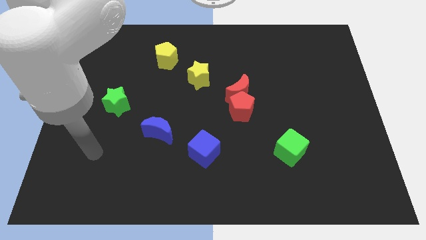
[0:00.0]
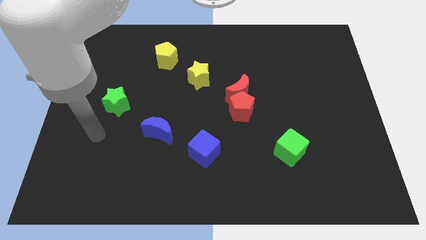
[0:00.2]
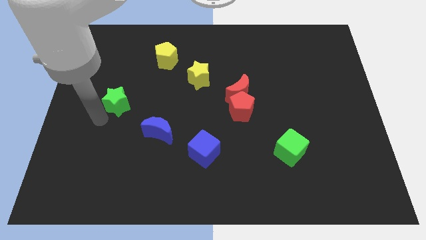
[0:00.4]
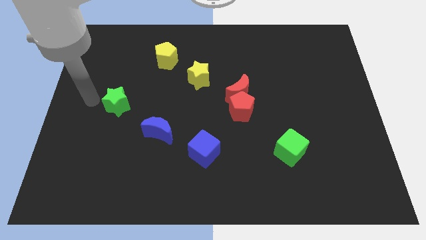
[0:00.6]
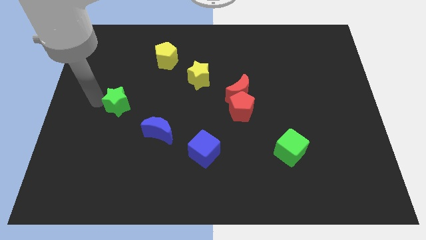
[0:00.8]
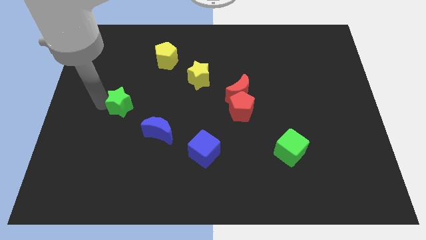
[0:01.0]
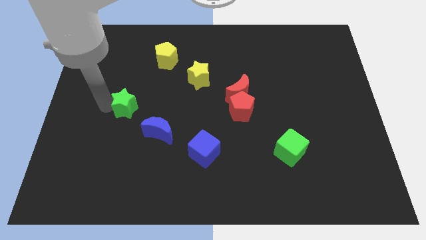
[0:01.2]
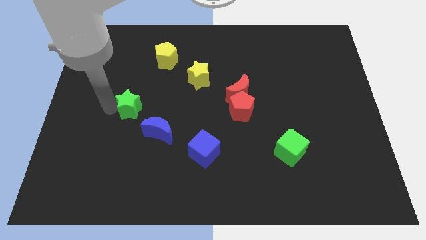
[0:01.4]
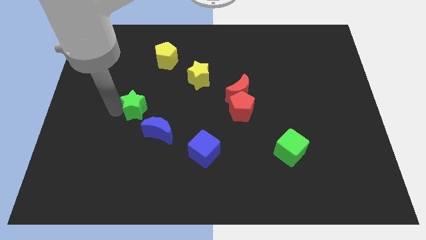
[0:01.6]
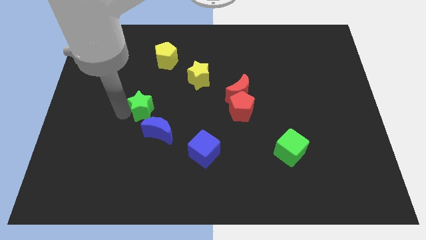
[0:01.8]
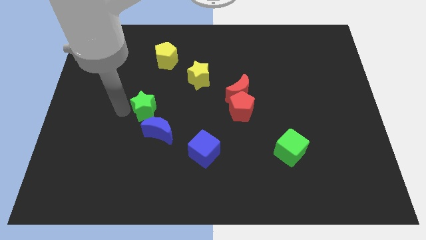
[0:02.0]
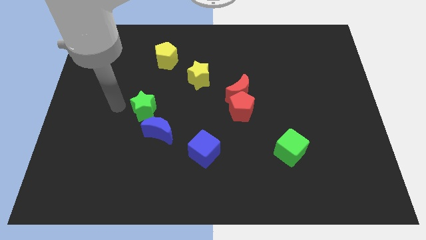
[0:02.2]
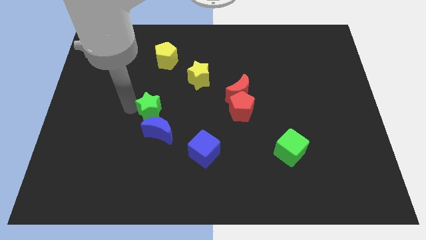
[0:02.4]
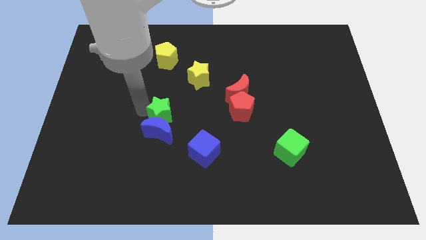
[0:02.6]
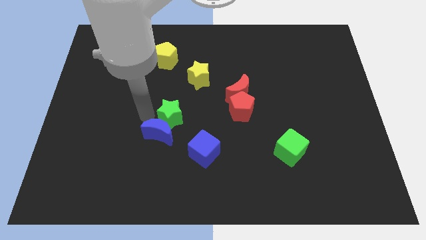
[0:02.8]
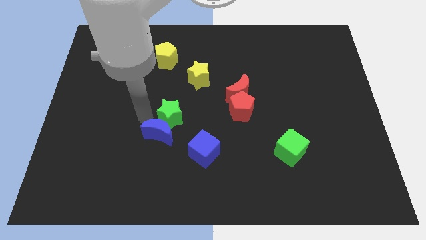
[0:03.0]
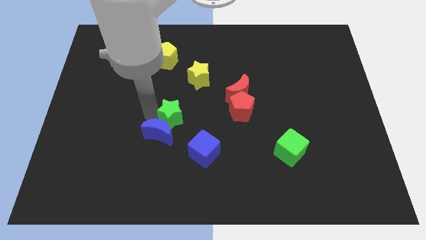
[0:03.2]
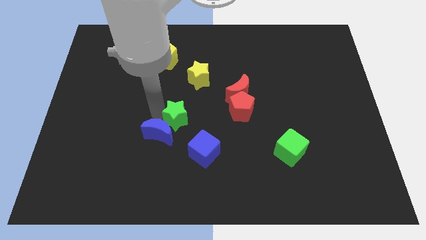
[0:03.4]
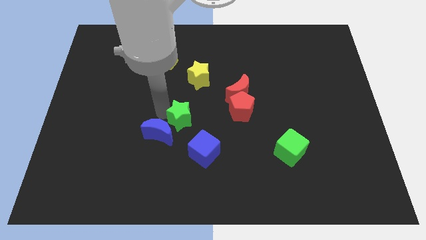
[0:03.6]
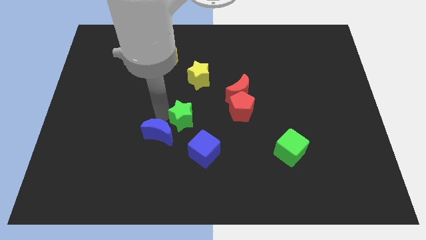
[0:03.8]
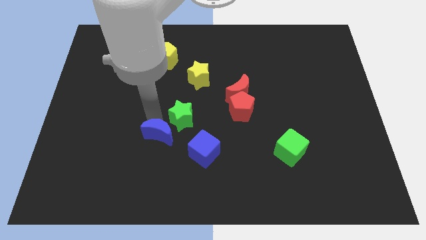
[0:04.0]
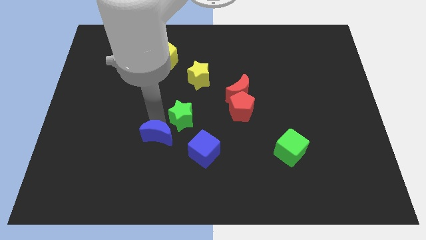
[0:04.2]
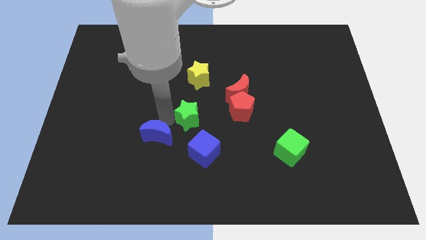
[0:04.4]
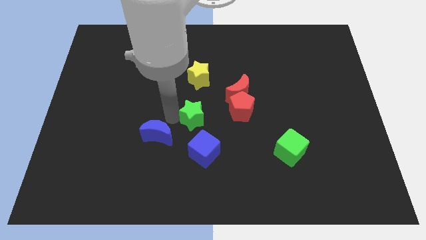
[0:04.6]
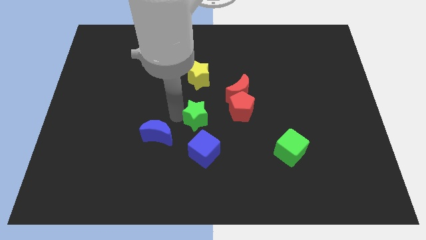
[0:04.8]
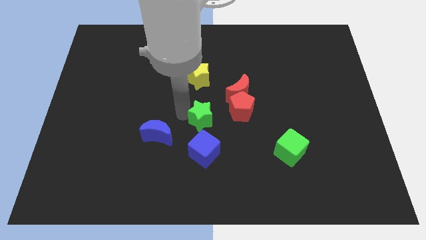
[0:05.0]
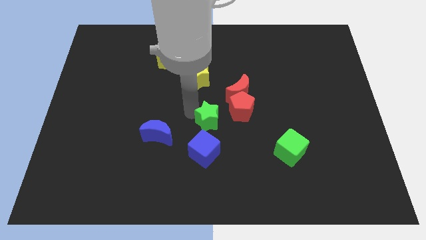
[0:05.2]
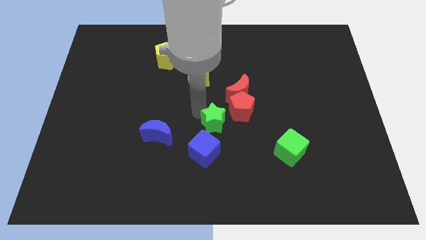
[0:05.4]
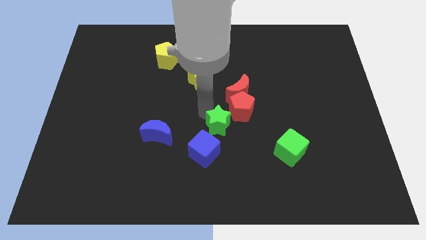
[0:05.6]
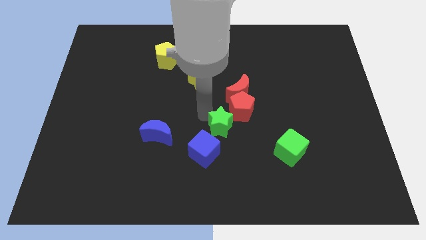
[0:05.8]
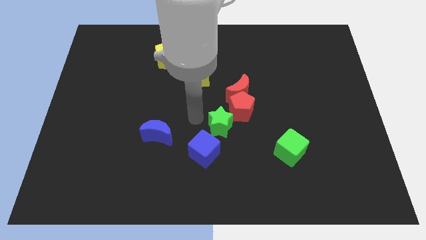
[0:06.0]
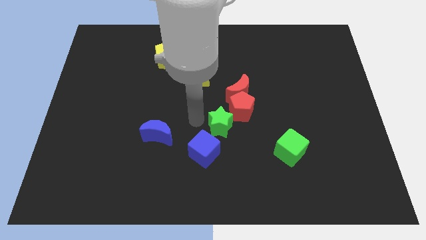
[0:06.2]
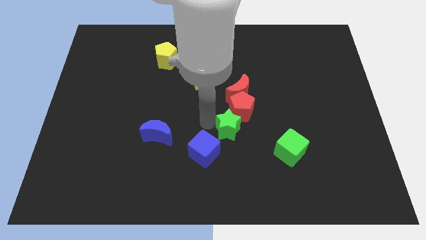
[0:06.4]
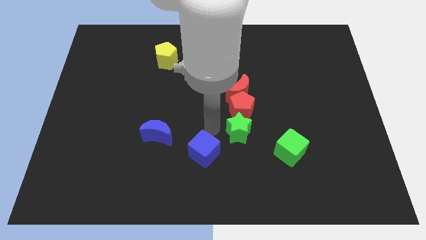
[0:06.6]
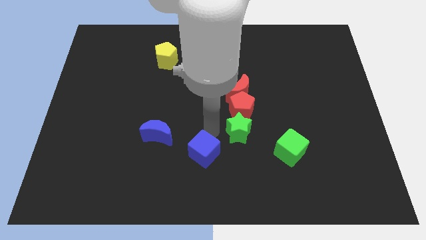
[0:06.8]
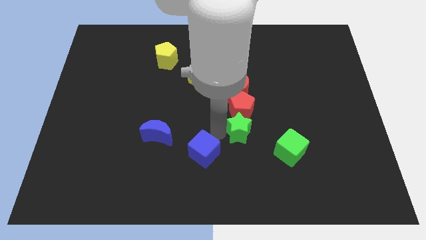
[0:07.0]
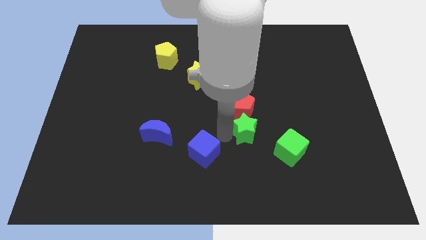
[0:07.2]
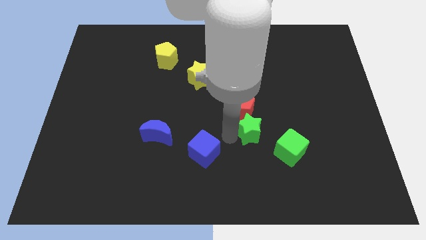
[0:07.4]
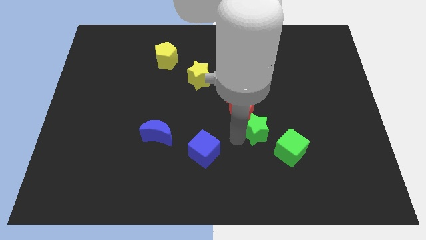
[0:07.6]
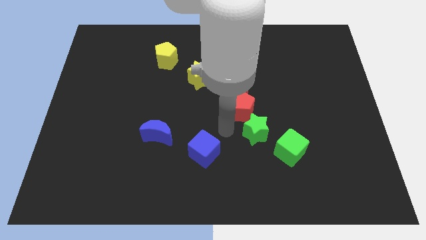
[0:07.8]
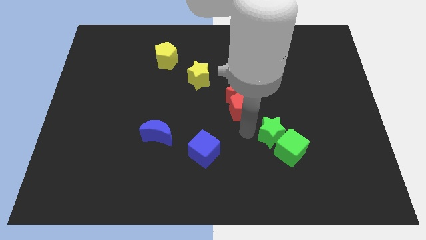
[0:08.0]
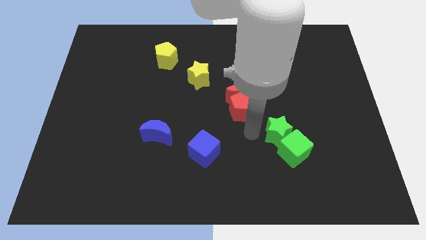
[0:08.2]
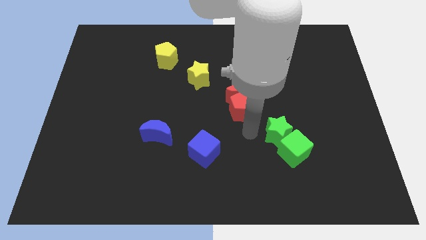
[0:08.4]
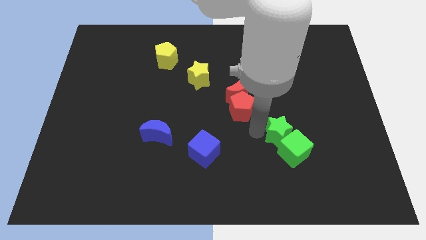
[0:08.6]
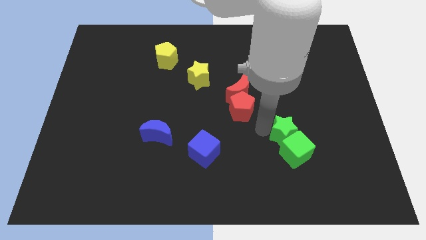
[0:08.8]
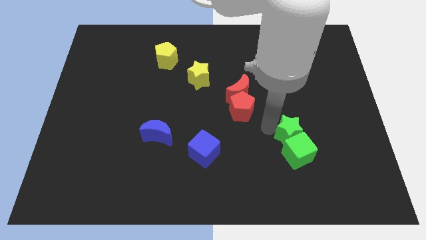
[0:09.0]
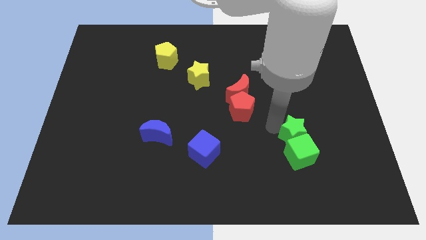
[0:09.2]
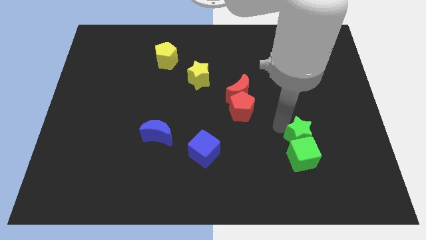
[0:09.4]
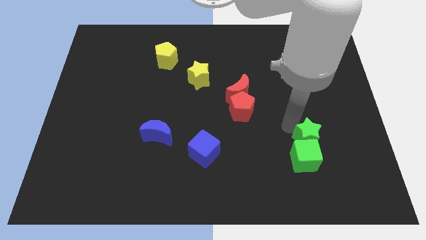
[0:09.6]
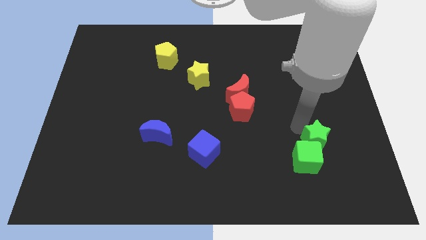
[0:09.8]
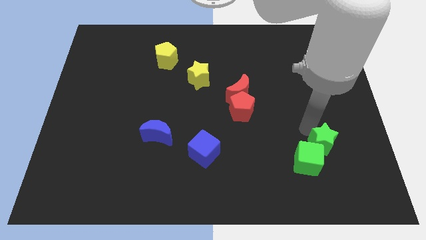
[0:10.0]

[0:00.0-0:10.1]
slide the green star just right of the green cube

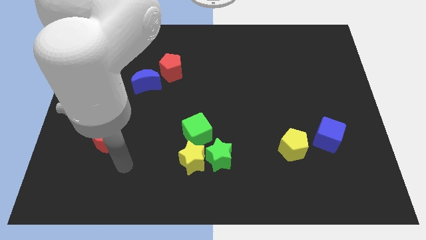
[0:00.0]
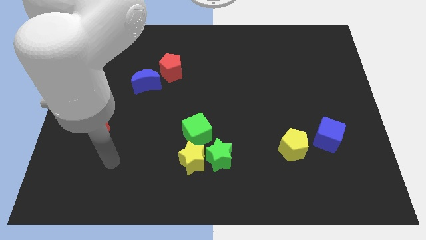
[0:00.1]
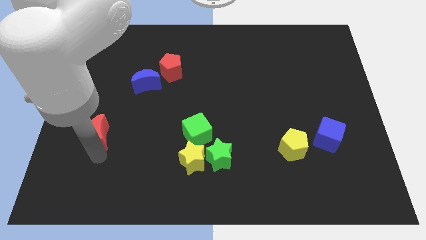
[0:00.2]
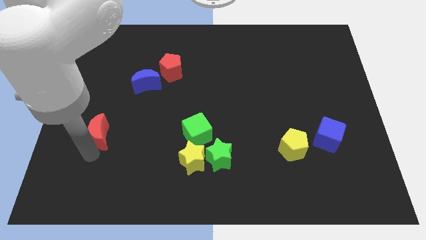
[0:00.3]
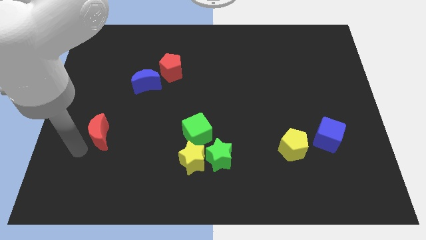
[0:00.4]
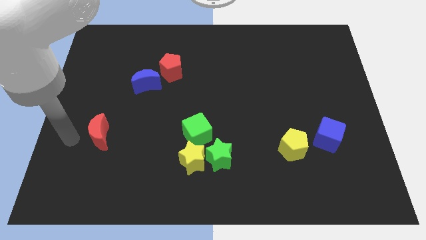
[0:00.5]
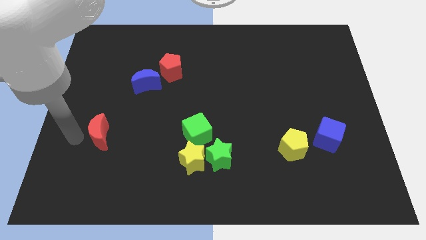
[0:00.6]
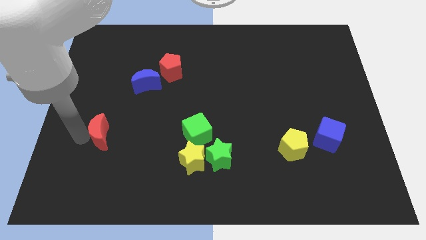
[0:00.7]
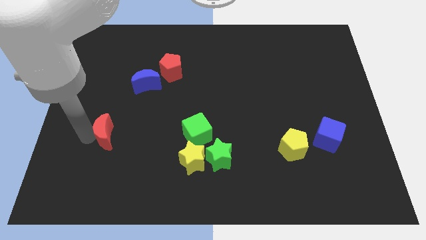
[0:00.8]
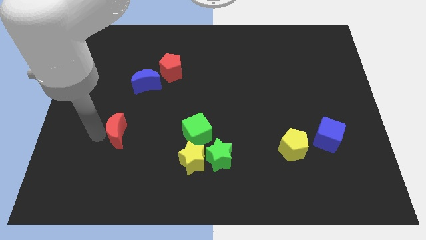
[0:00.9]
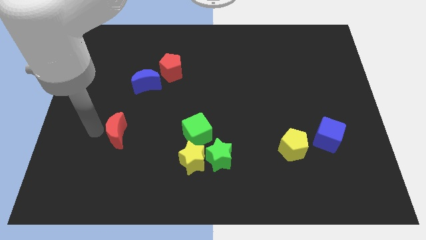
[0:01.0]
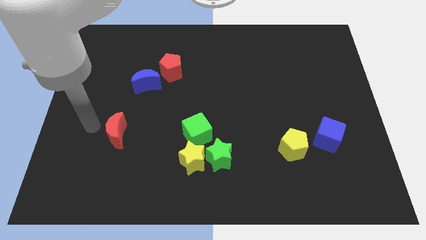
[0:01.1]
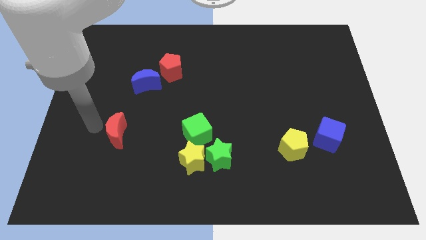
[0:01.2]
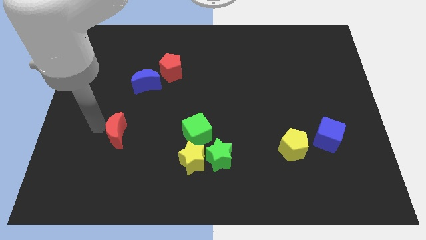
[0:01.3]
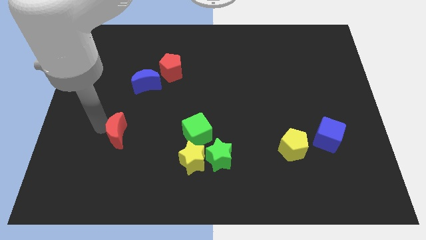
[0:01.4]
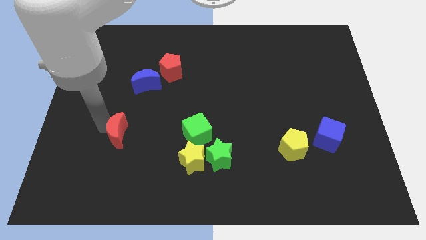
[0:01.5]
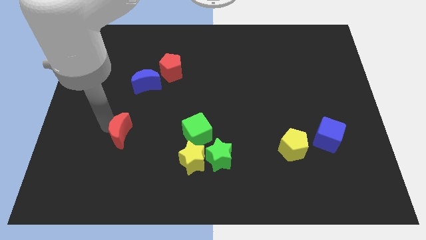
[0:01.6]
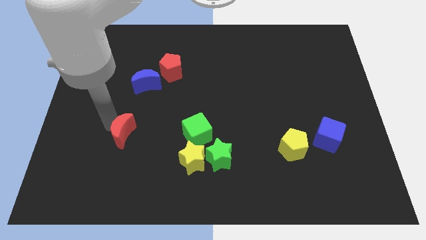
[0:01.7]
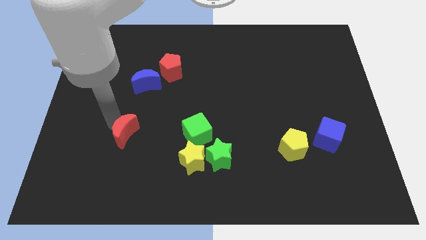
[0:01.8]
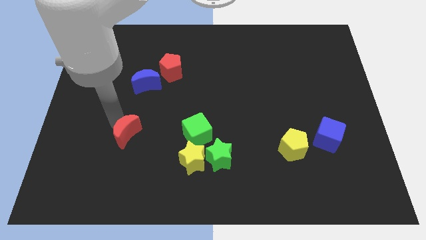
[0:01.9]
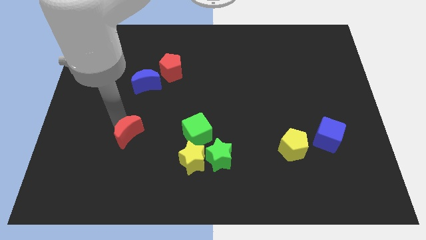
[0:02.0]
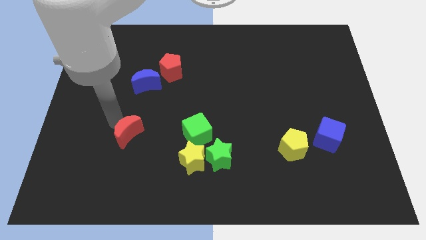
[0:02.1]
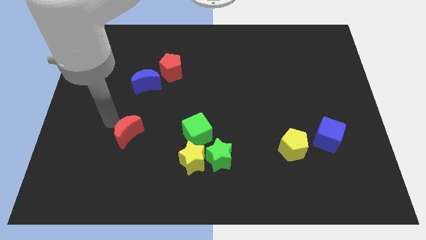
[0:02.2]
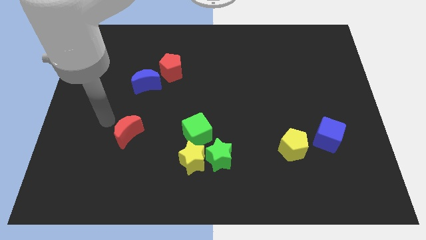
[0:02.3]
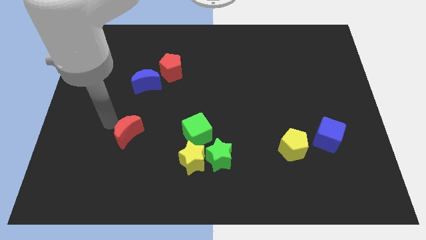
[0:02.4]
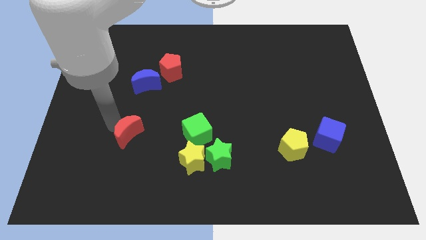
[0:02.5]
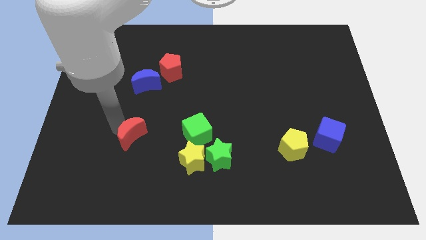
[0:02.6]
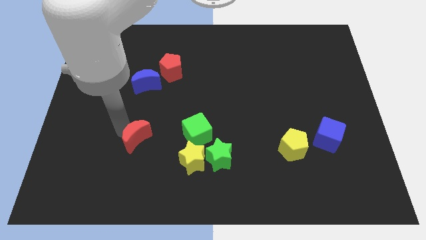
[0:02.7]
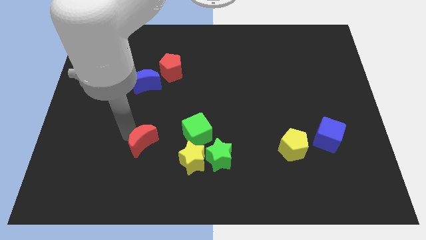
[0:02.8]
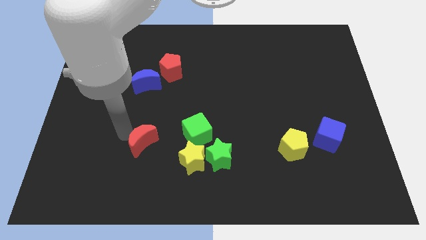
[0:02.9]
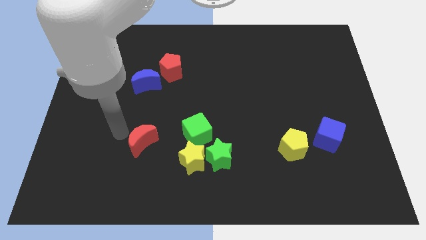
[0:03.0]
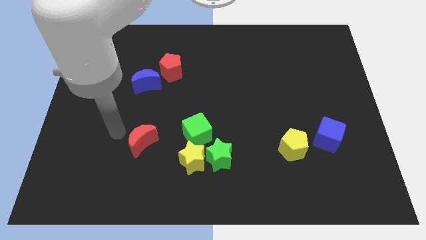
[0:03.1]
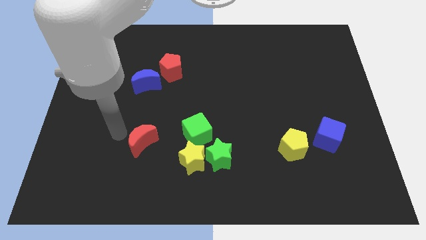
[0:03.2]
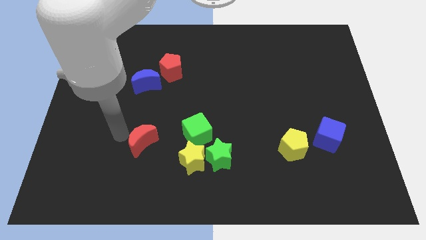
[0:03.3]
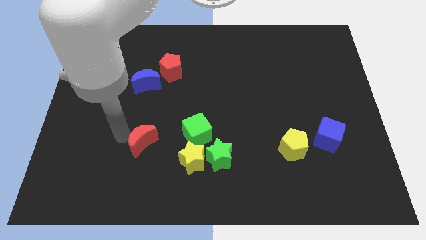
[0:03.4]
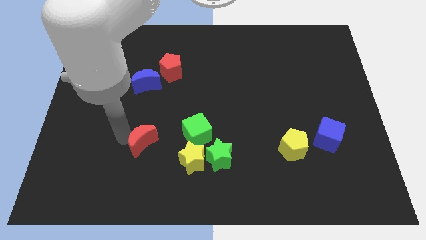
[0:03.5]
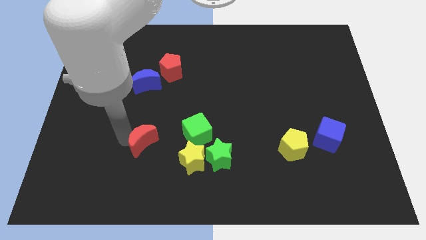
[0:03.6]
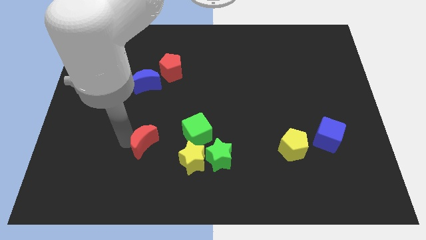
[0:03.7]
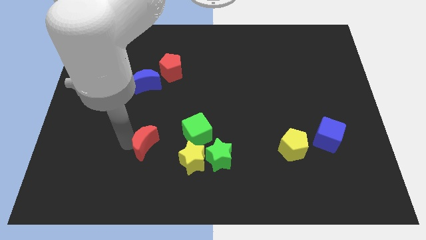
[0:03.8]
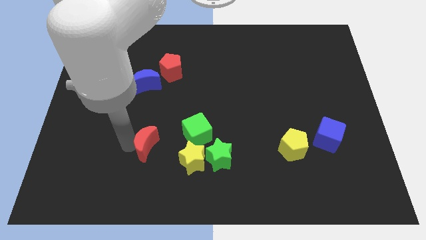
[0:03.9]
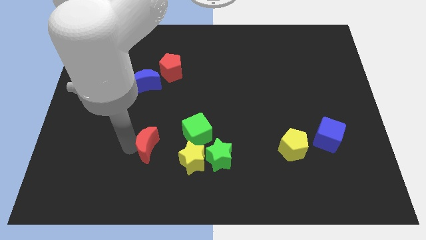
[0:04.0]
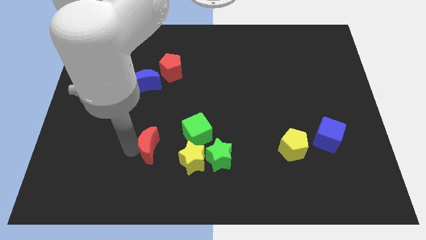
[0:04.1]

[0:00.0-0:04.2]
push the red moon just left of the green star
